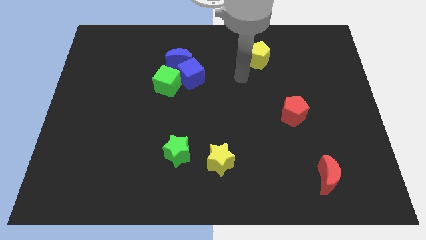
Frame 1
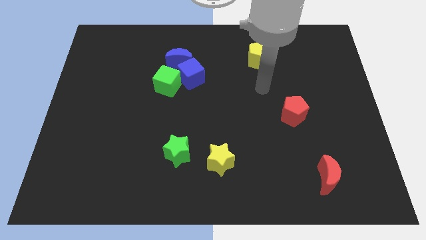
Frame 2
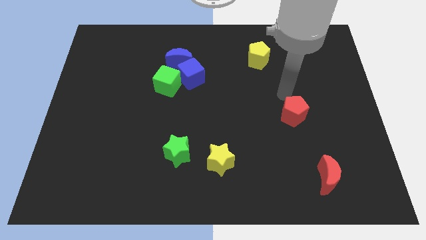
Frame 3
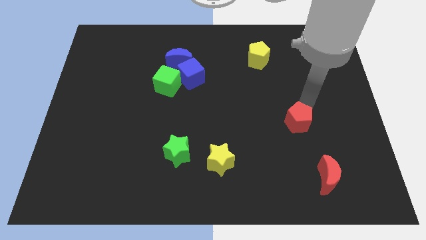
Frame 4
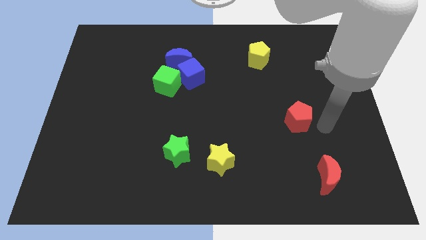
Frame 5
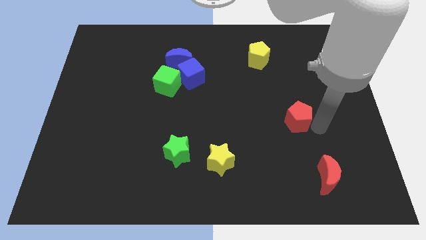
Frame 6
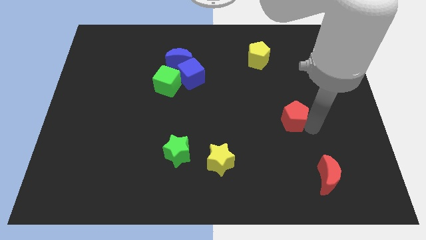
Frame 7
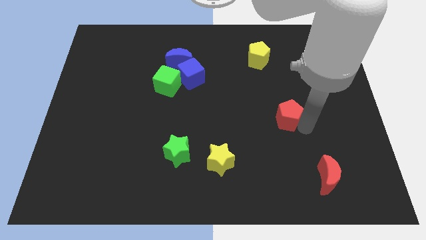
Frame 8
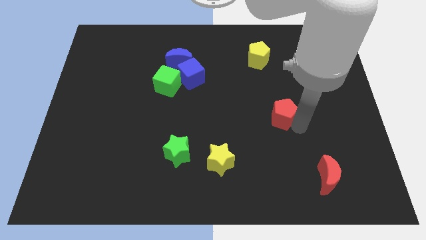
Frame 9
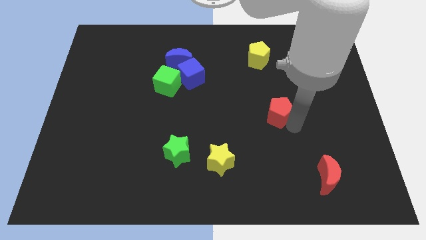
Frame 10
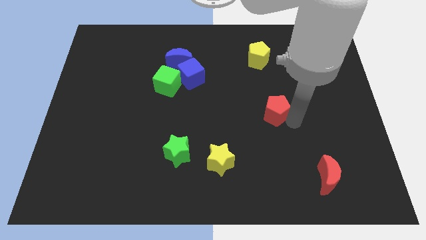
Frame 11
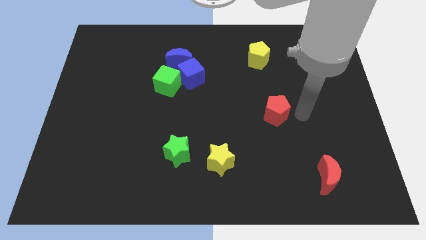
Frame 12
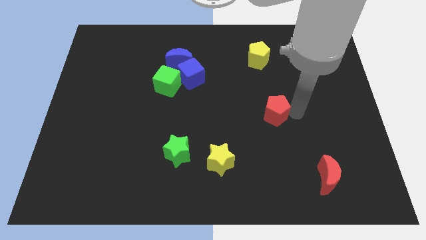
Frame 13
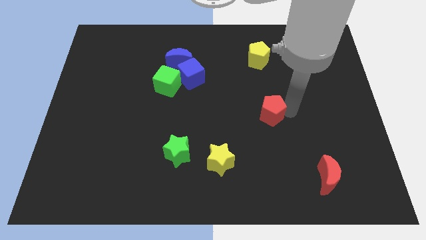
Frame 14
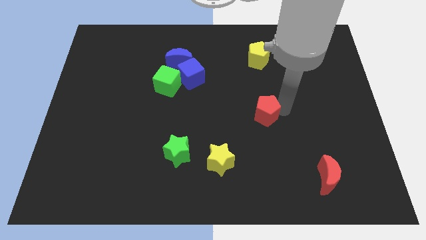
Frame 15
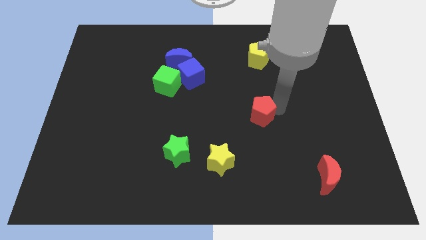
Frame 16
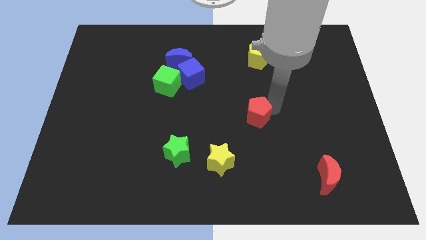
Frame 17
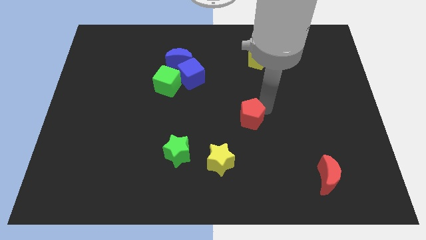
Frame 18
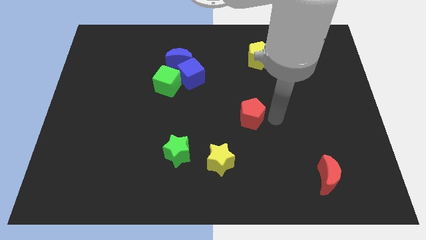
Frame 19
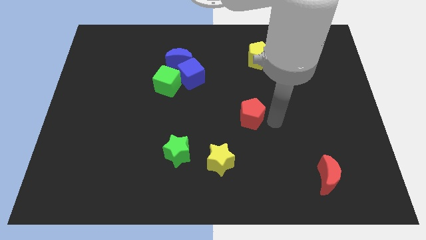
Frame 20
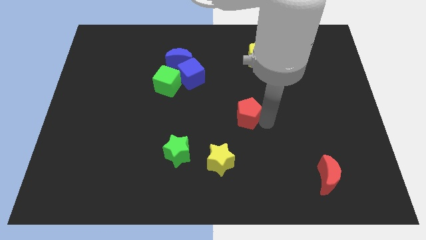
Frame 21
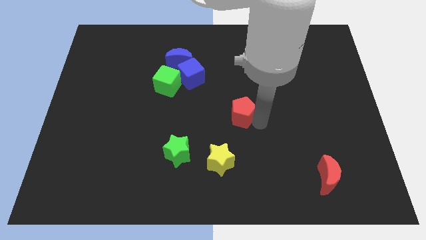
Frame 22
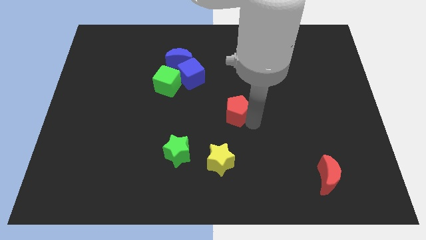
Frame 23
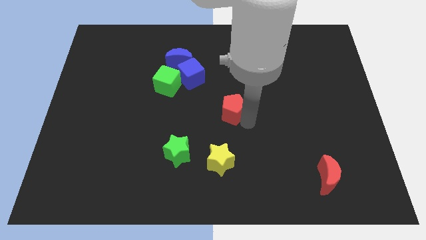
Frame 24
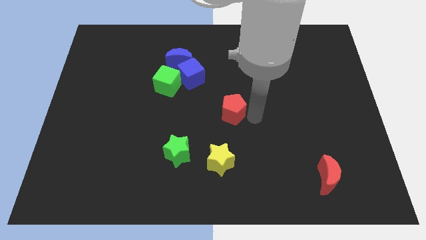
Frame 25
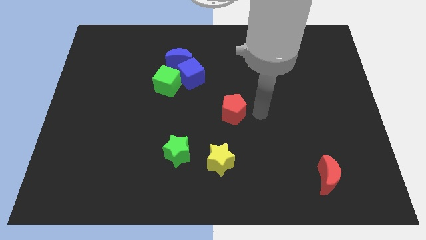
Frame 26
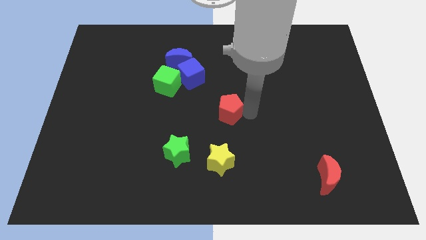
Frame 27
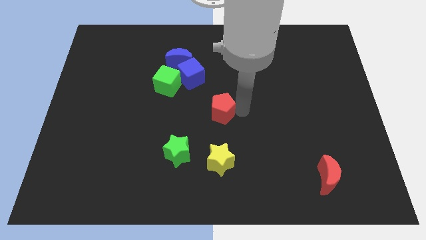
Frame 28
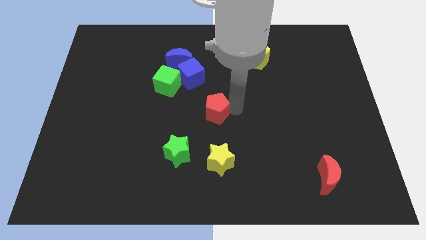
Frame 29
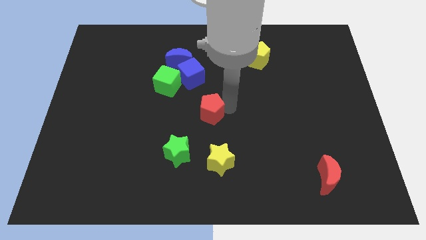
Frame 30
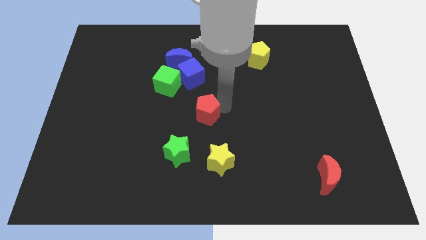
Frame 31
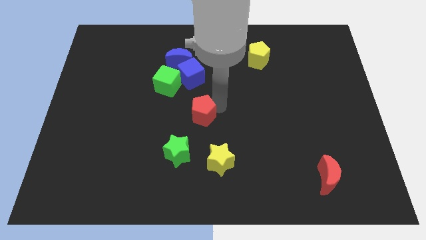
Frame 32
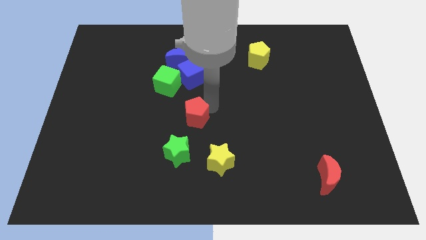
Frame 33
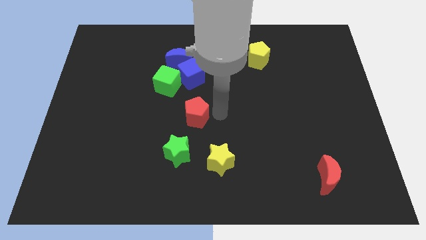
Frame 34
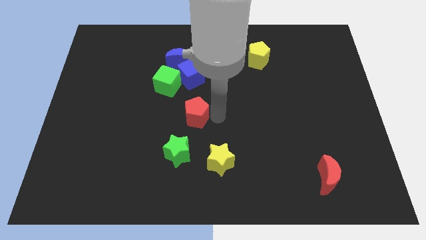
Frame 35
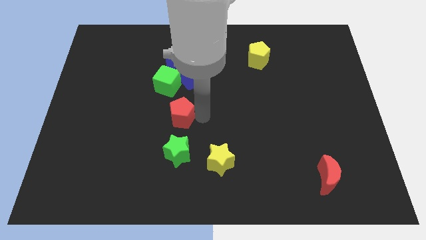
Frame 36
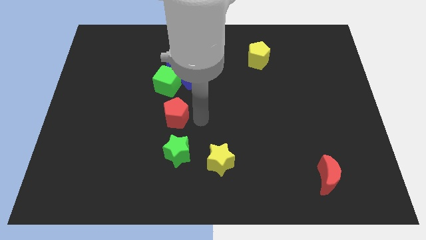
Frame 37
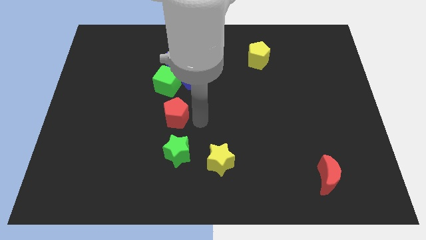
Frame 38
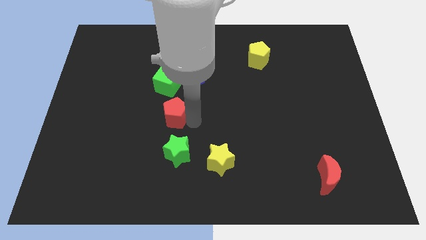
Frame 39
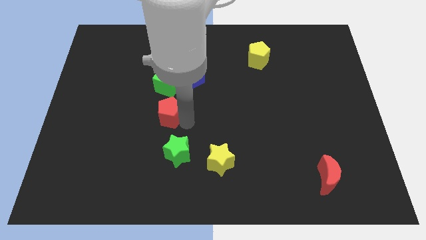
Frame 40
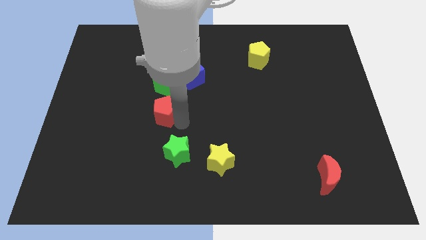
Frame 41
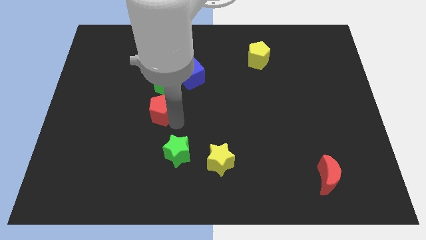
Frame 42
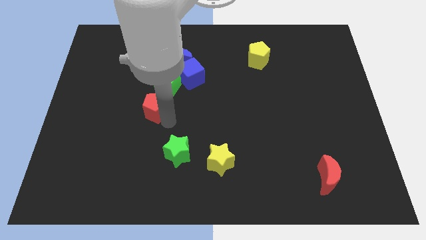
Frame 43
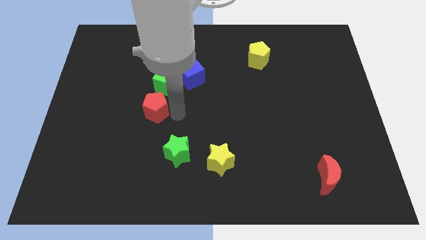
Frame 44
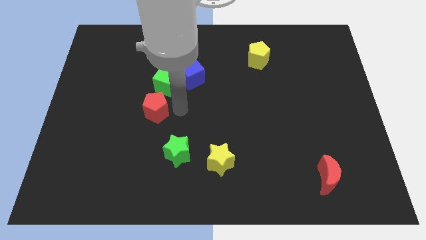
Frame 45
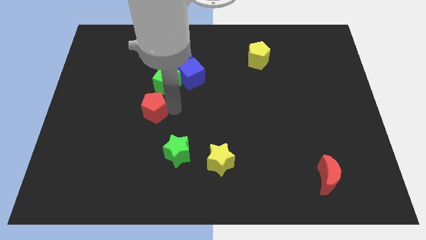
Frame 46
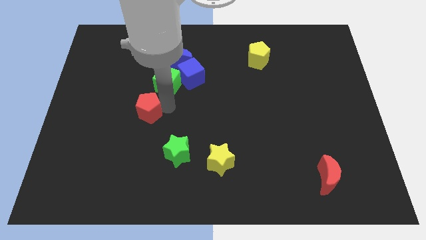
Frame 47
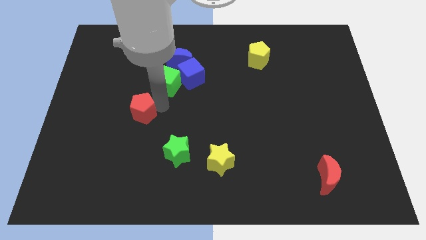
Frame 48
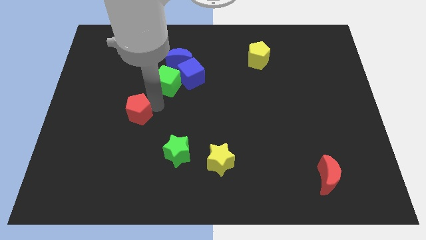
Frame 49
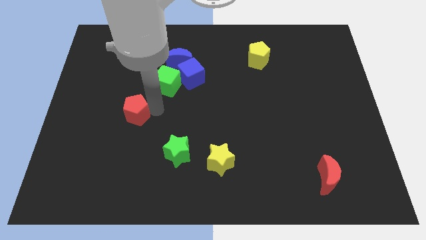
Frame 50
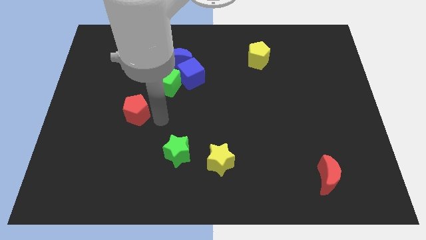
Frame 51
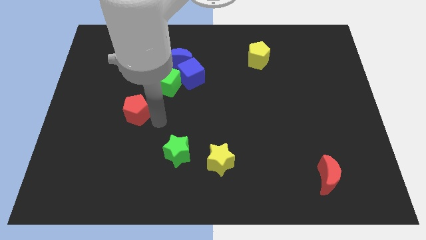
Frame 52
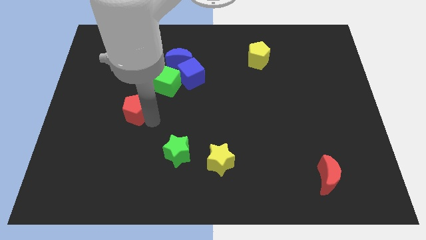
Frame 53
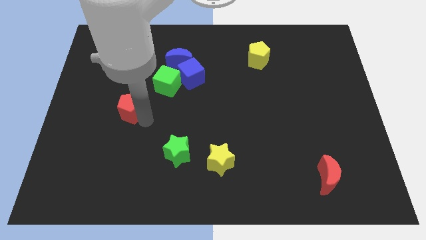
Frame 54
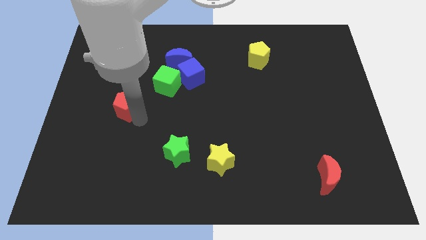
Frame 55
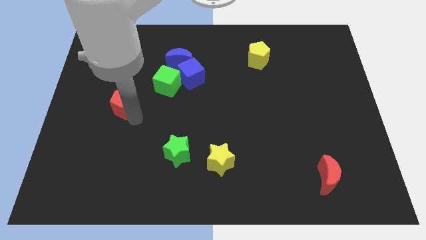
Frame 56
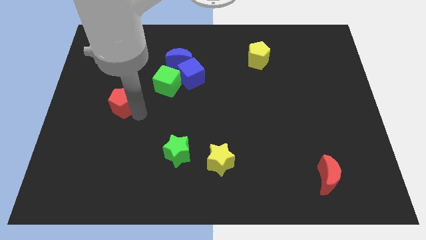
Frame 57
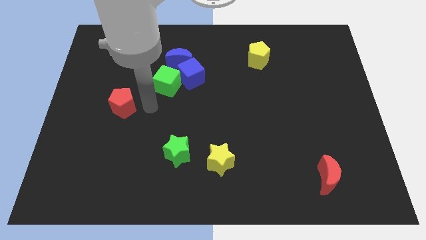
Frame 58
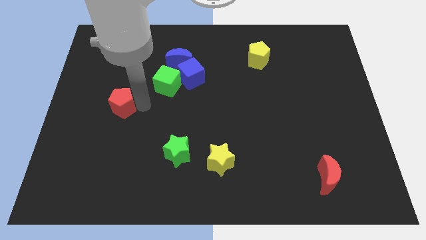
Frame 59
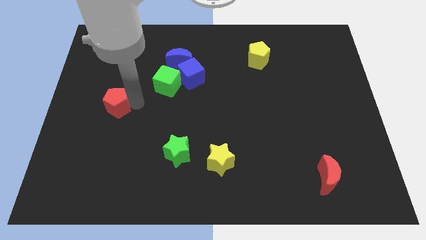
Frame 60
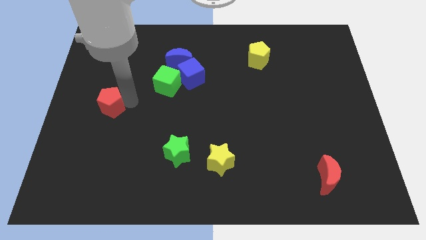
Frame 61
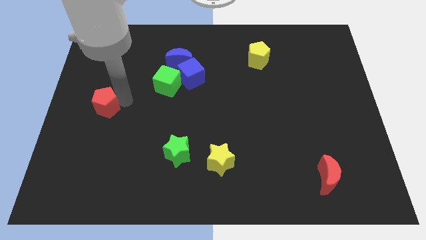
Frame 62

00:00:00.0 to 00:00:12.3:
slide the red pentagon to the left side of the board
